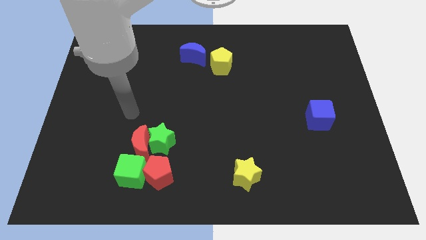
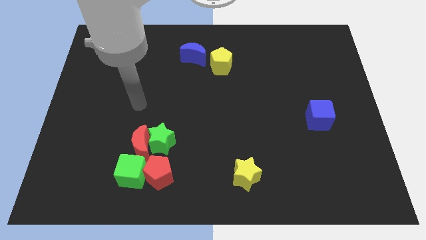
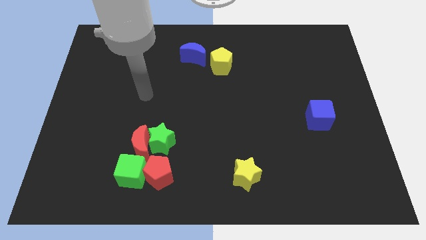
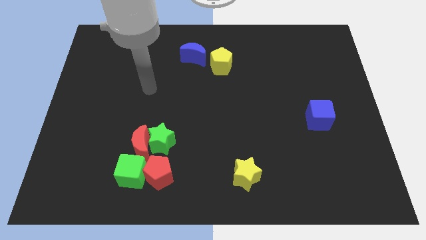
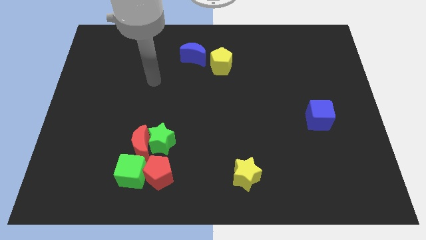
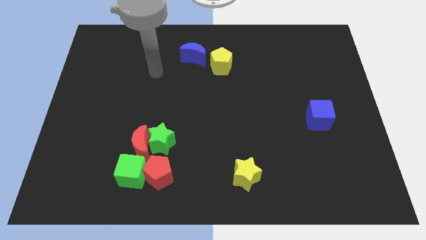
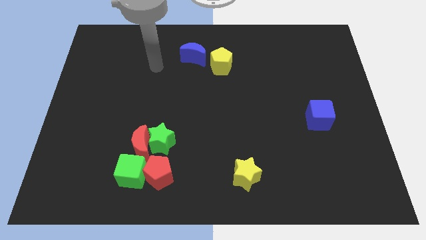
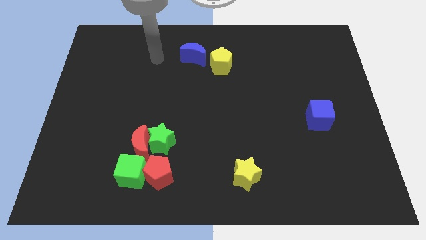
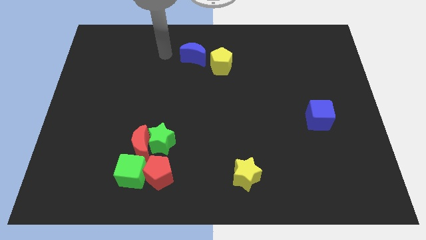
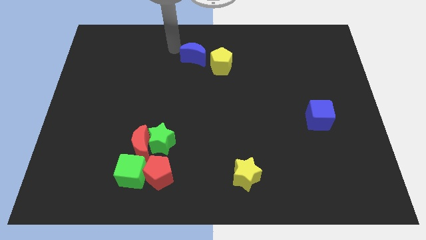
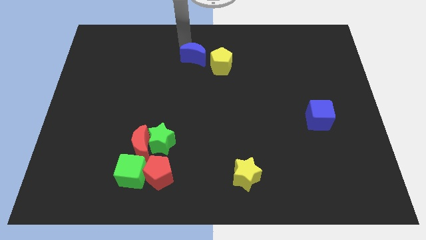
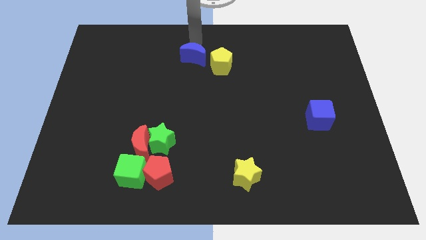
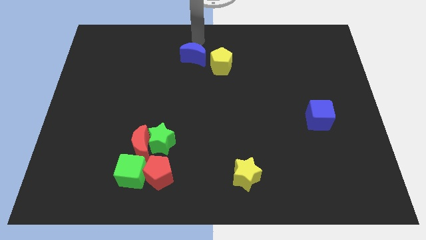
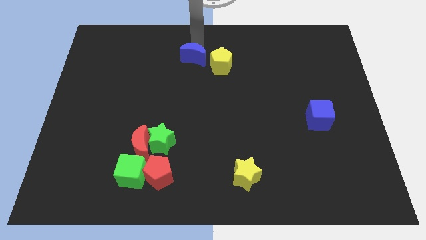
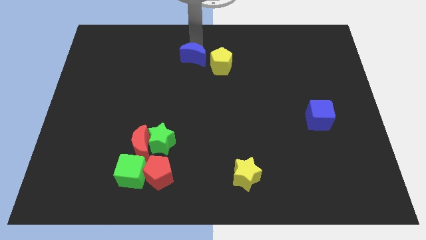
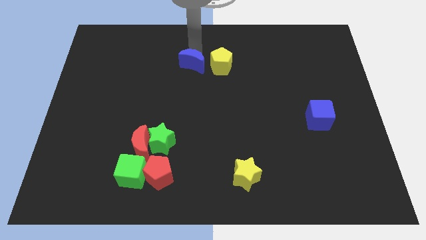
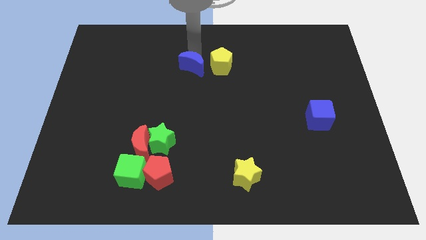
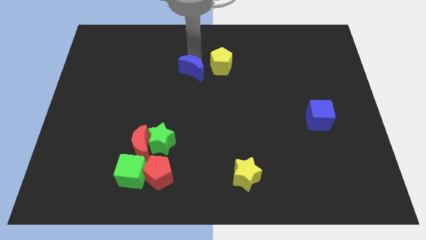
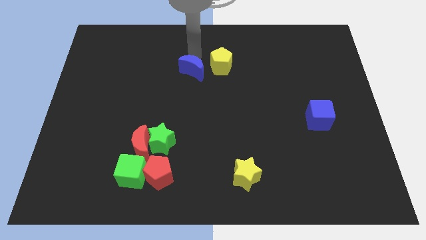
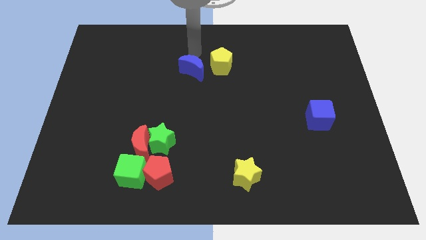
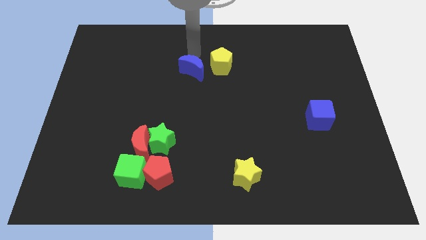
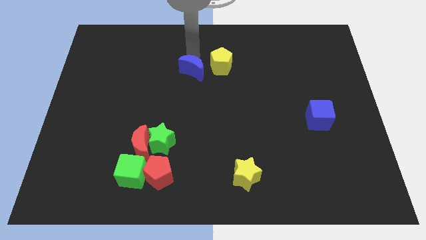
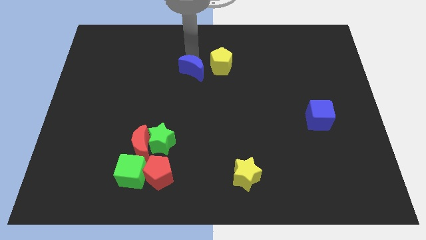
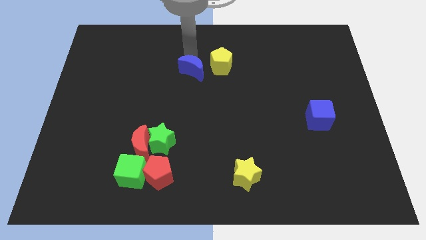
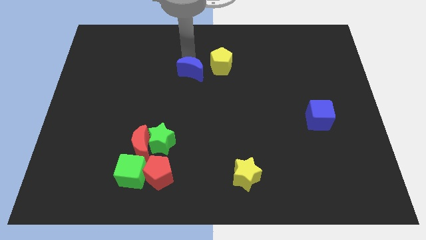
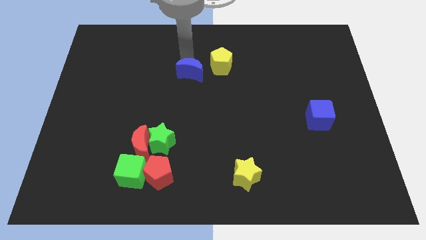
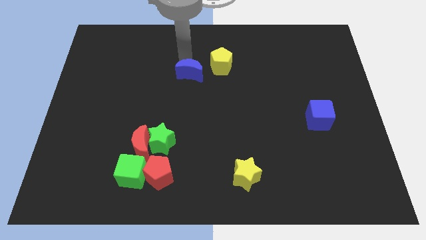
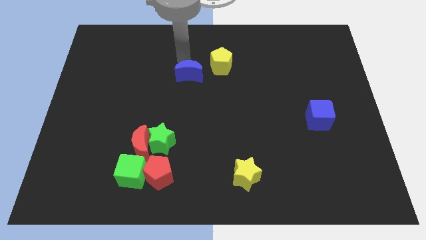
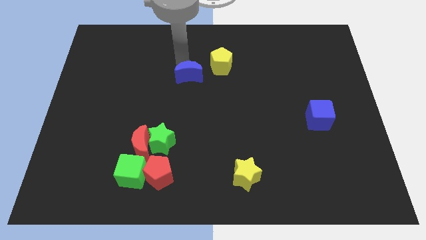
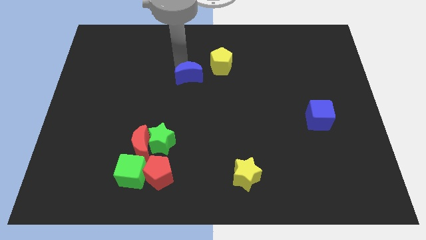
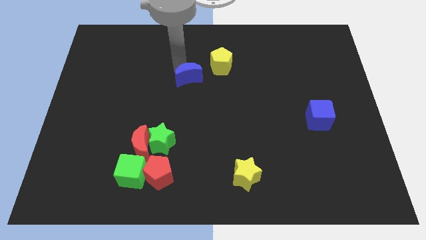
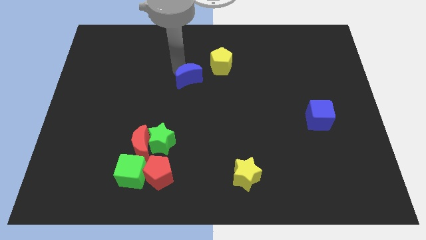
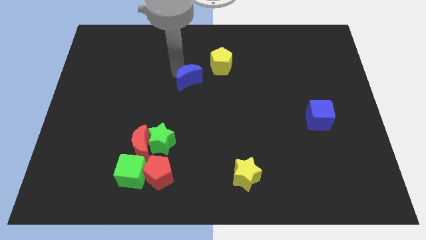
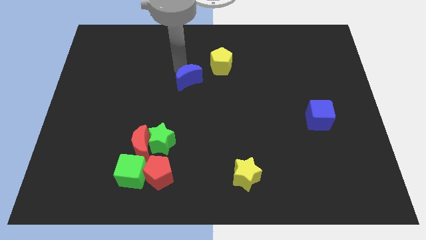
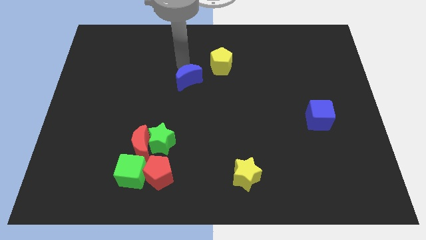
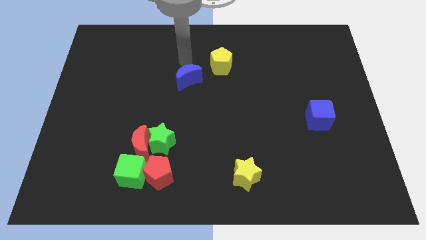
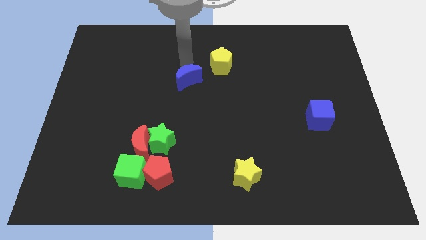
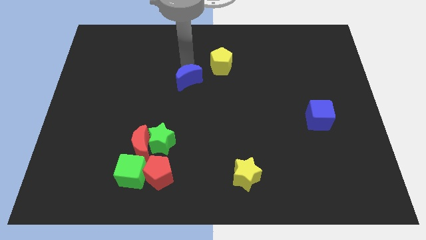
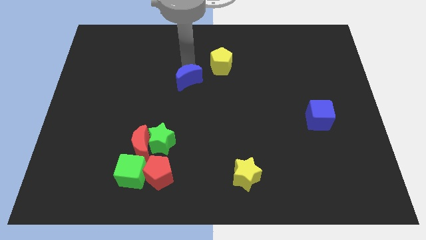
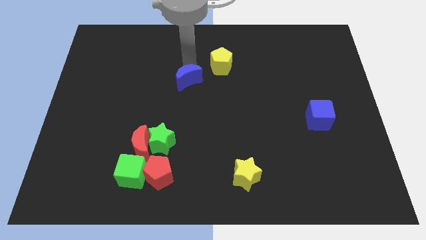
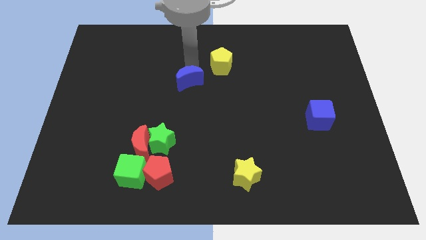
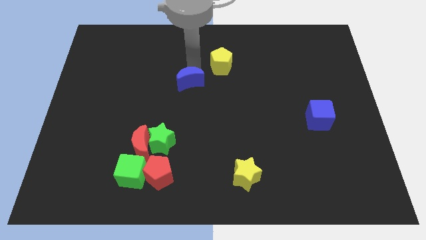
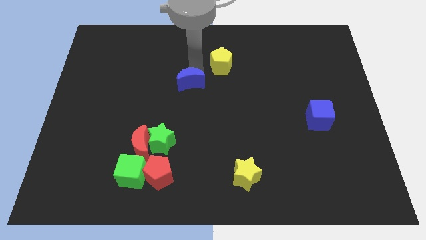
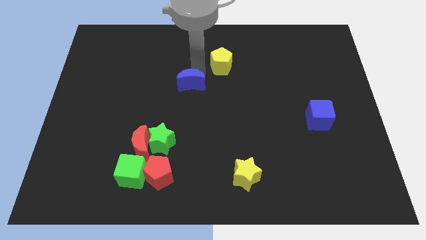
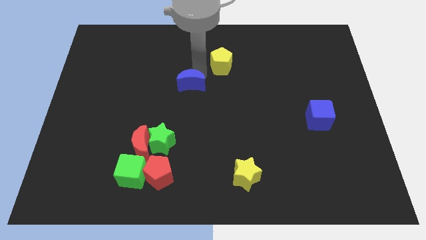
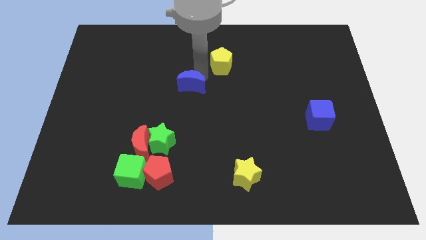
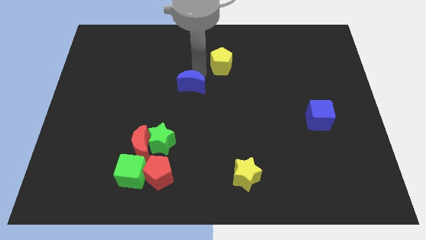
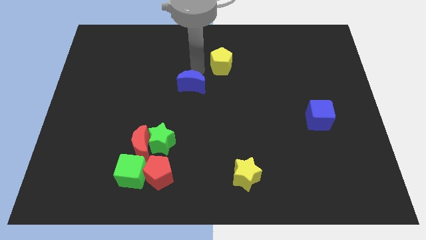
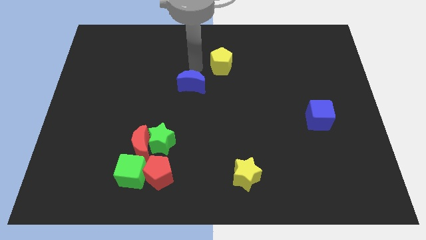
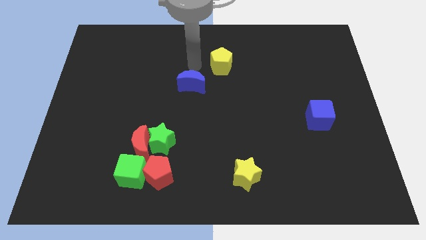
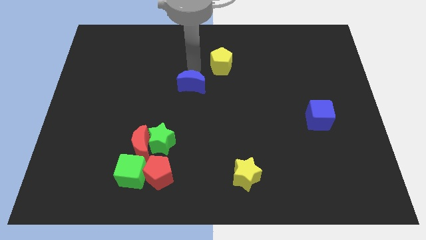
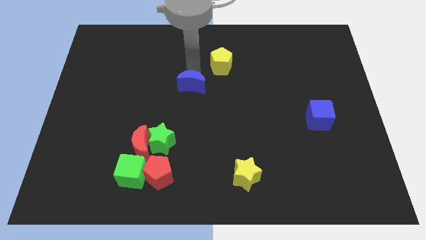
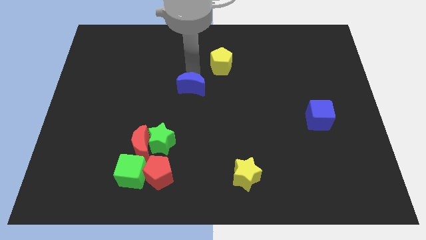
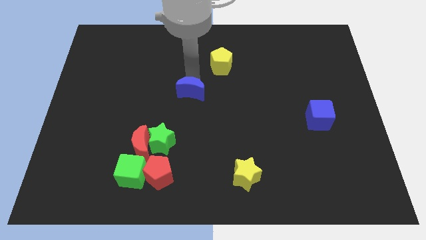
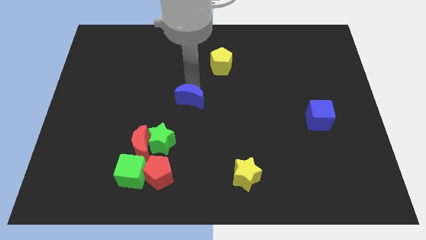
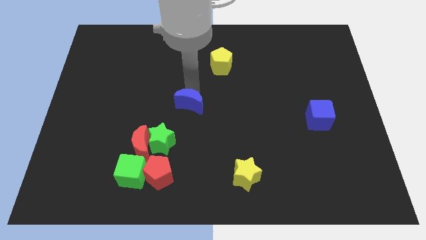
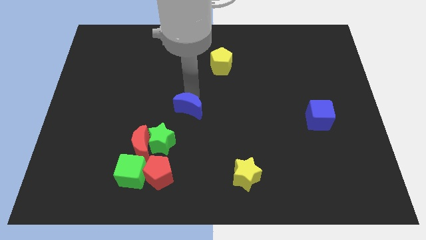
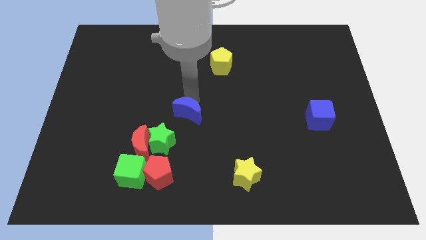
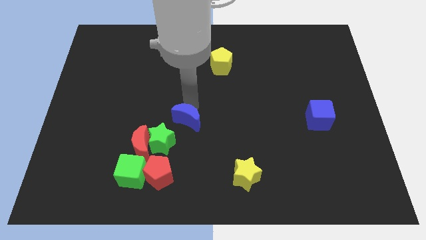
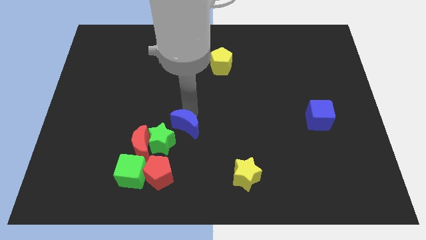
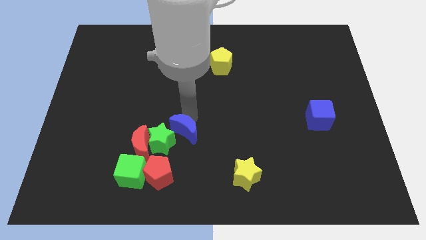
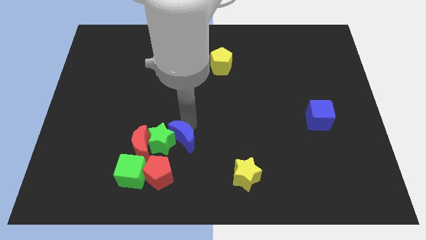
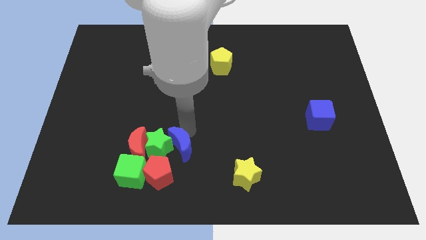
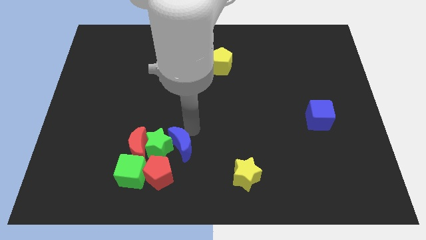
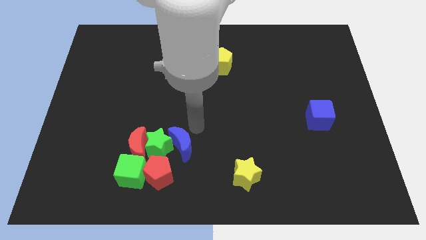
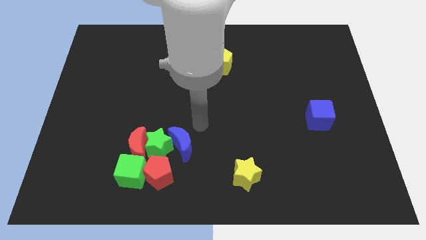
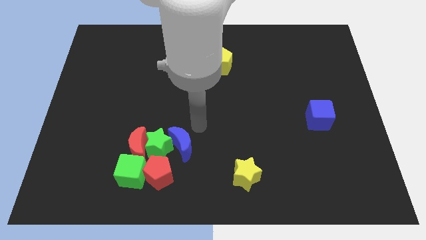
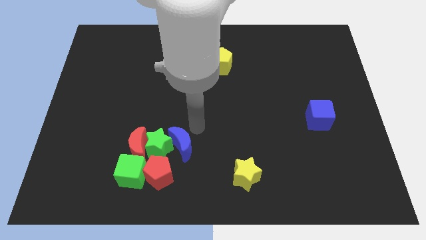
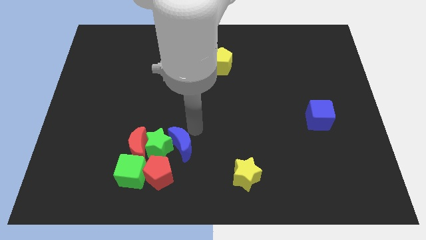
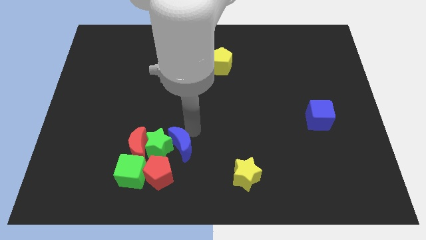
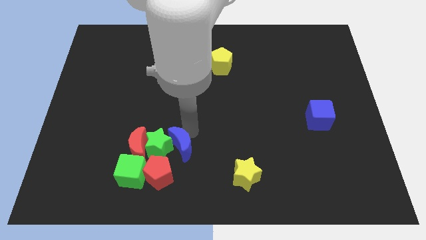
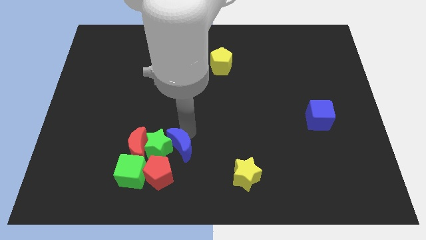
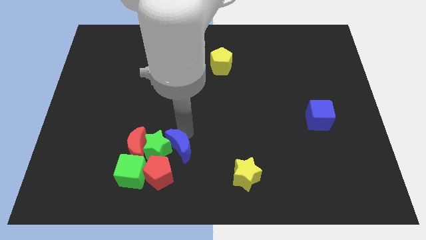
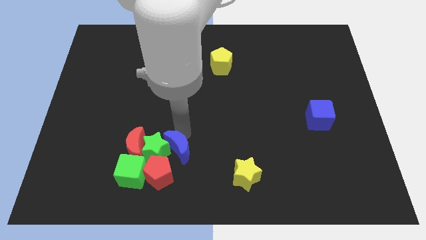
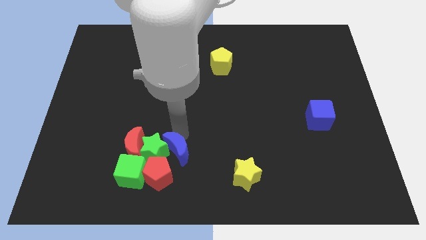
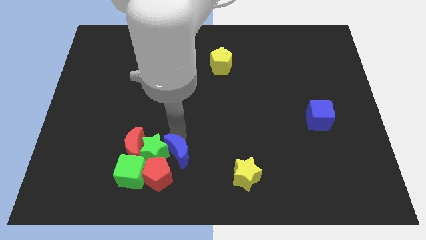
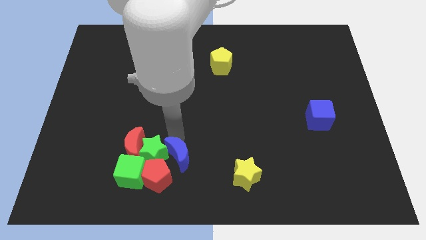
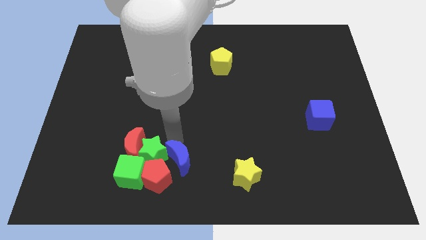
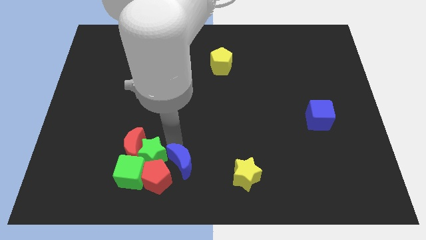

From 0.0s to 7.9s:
put the blue moon towards the red pentagon
